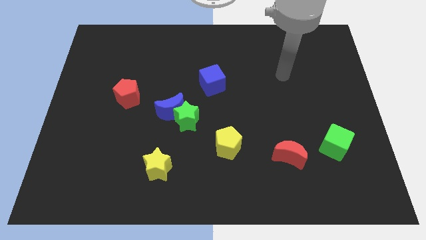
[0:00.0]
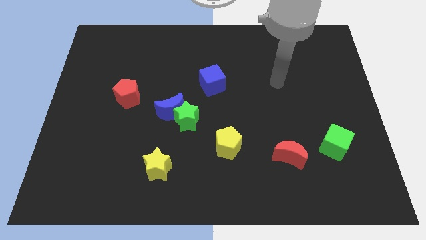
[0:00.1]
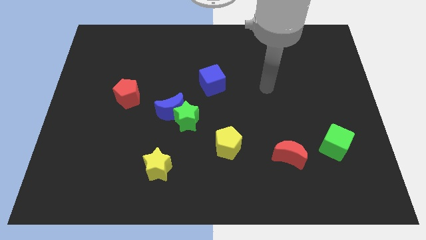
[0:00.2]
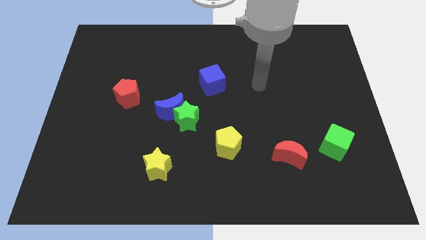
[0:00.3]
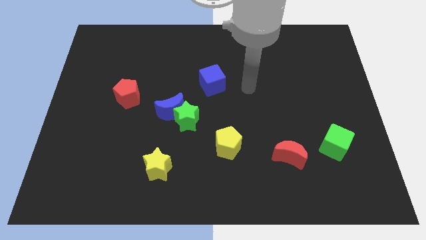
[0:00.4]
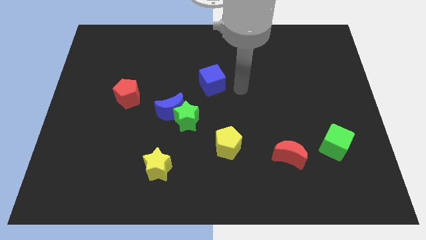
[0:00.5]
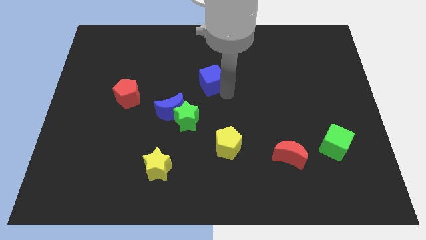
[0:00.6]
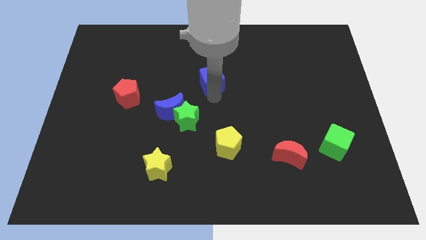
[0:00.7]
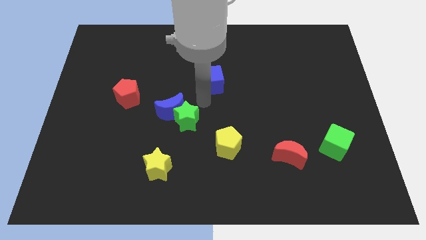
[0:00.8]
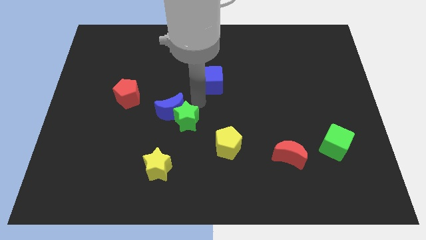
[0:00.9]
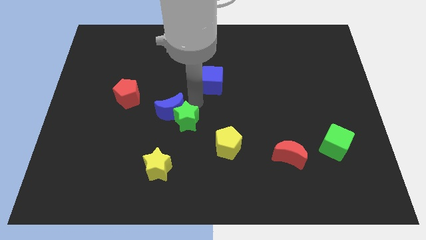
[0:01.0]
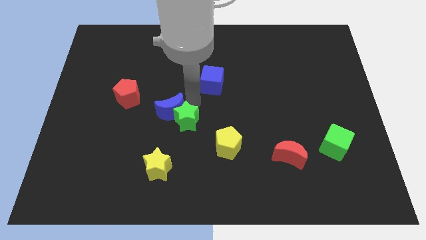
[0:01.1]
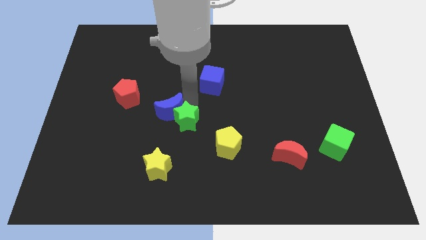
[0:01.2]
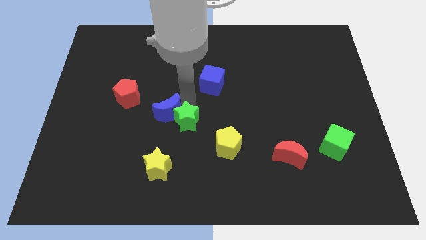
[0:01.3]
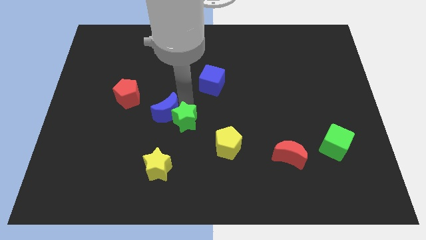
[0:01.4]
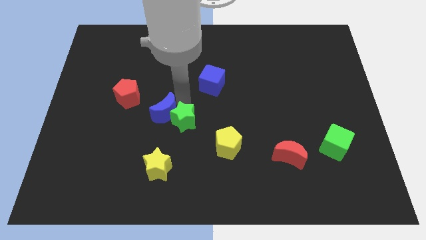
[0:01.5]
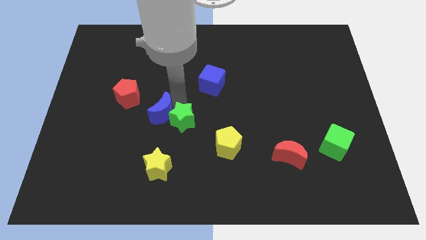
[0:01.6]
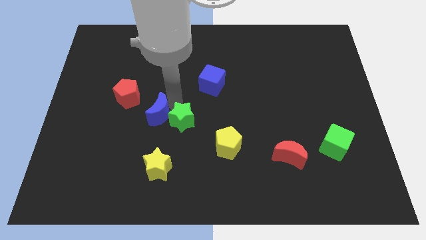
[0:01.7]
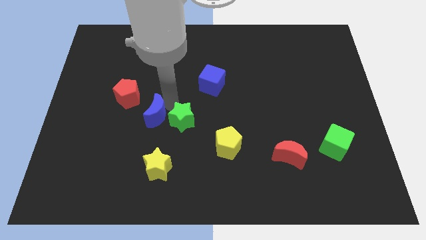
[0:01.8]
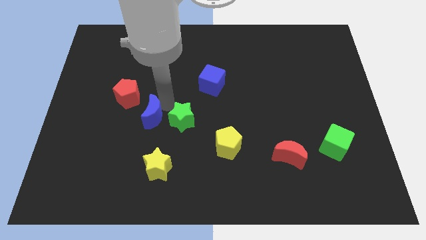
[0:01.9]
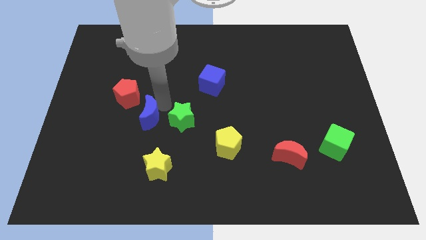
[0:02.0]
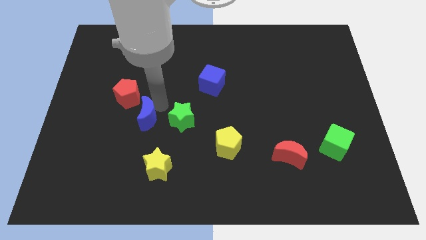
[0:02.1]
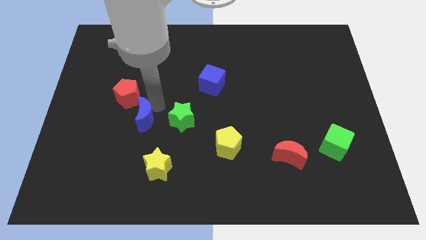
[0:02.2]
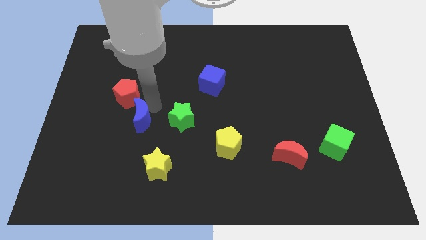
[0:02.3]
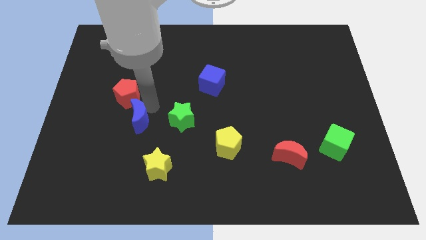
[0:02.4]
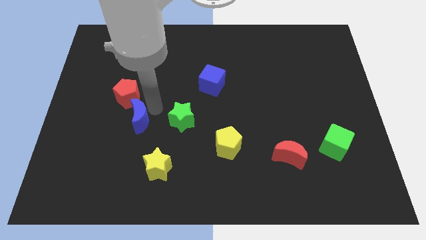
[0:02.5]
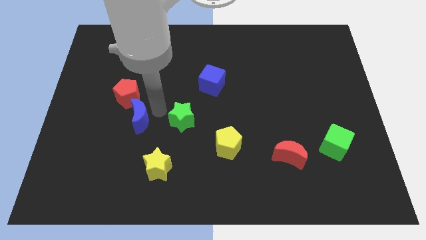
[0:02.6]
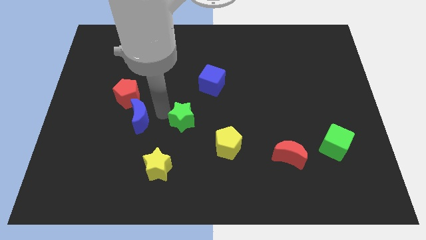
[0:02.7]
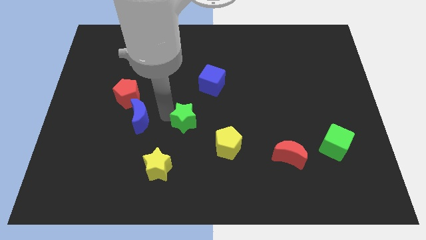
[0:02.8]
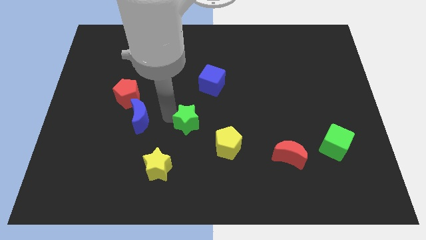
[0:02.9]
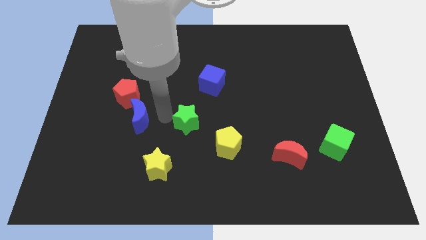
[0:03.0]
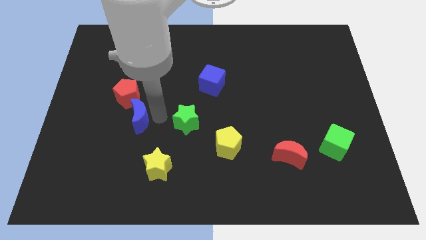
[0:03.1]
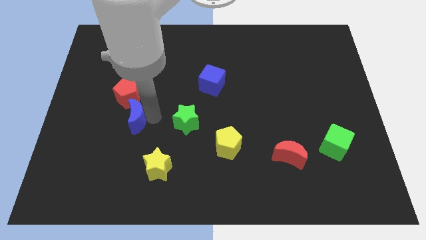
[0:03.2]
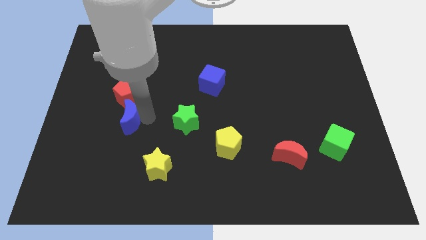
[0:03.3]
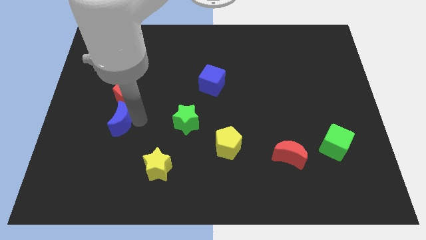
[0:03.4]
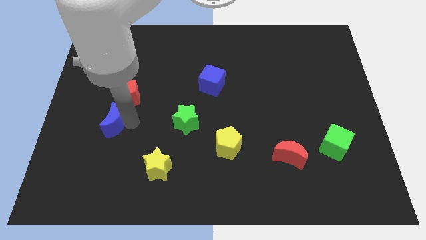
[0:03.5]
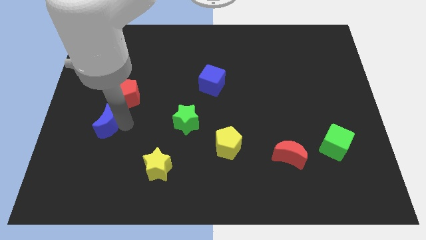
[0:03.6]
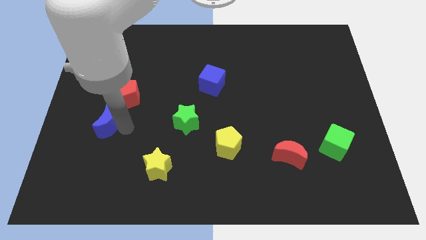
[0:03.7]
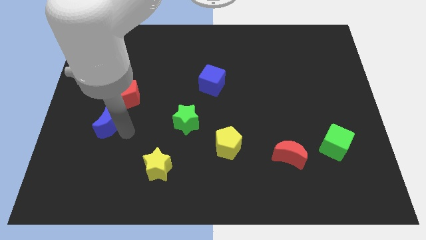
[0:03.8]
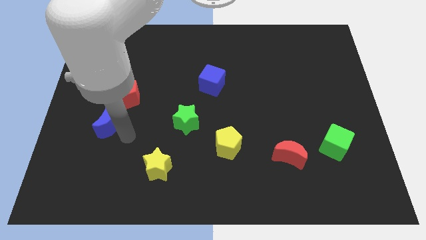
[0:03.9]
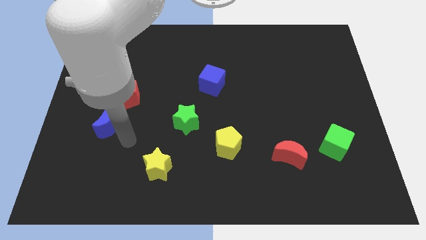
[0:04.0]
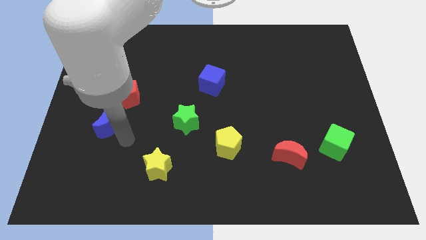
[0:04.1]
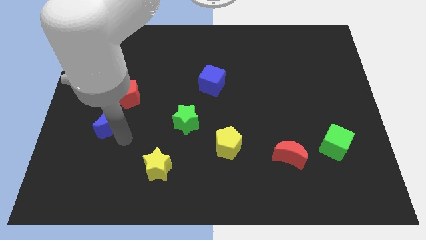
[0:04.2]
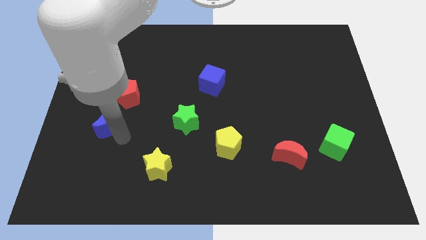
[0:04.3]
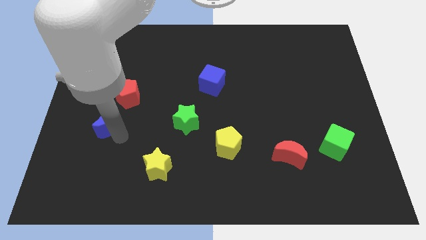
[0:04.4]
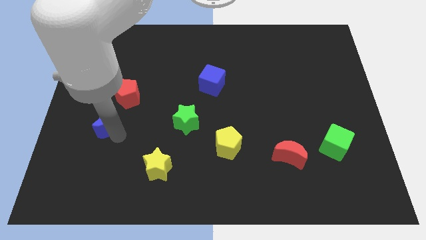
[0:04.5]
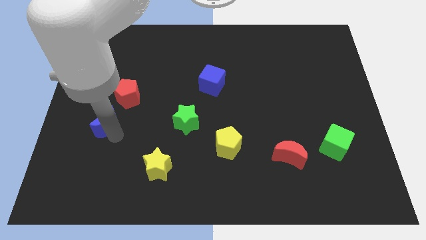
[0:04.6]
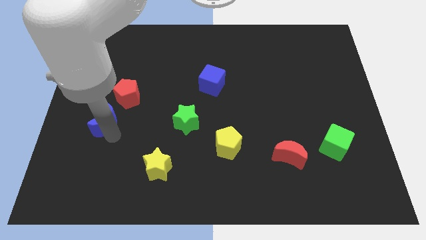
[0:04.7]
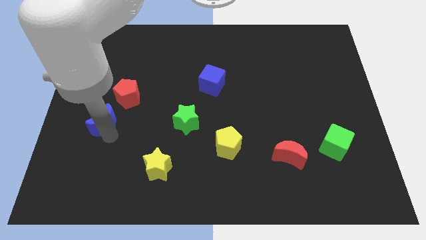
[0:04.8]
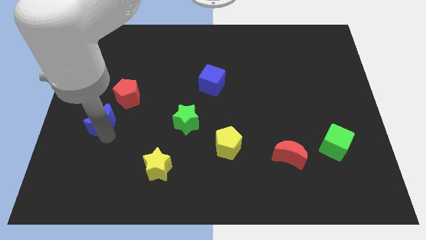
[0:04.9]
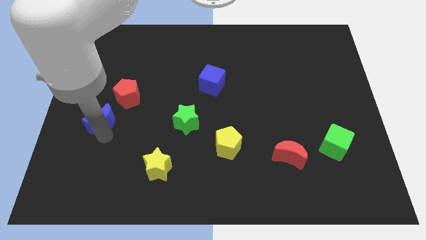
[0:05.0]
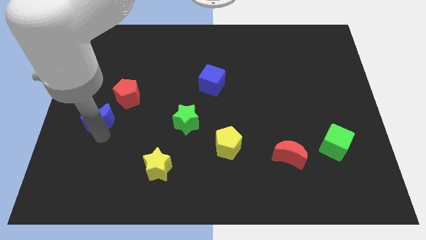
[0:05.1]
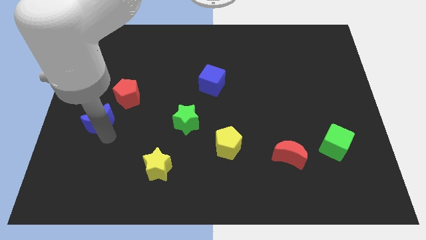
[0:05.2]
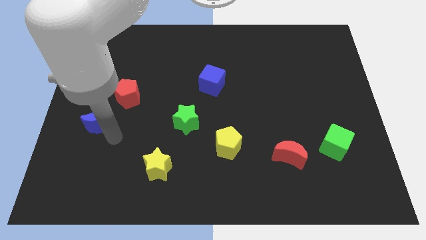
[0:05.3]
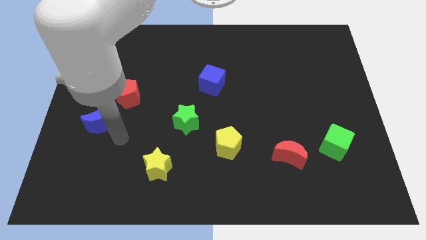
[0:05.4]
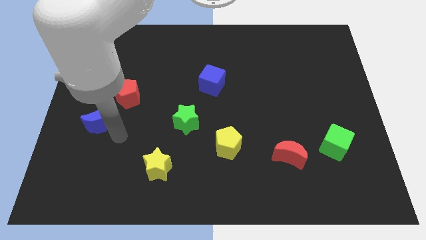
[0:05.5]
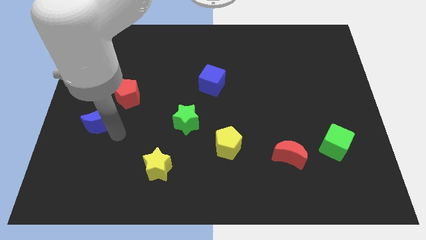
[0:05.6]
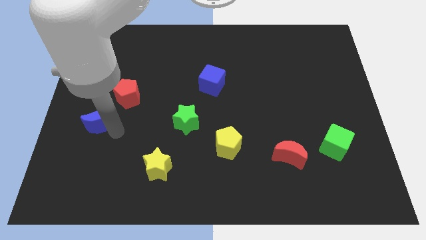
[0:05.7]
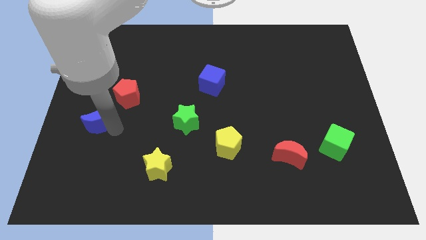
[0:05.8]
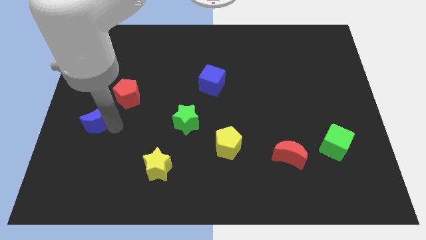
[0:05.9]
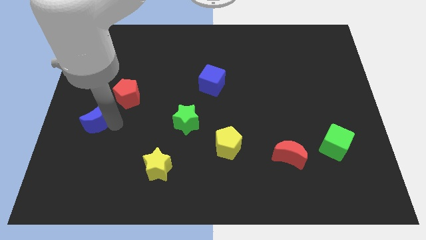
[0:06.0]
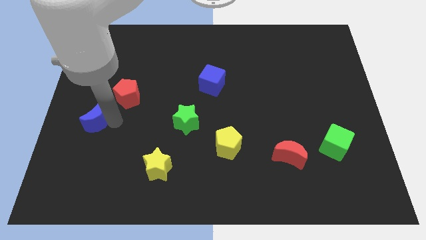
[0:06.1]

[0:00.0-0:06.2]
move the blue moon to the left side
